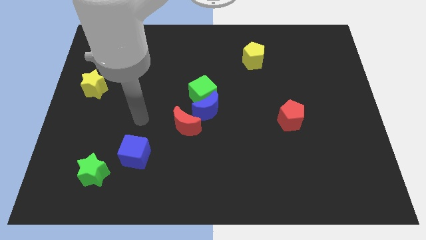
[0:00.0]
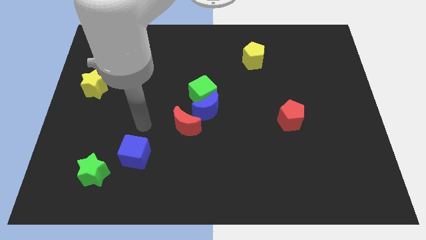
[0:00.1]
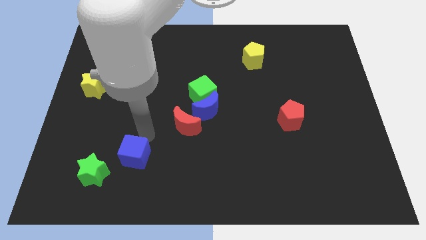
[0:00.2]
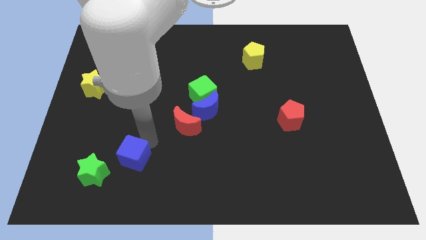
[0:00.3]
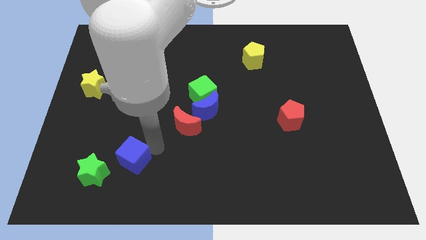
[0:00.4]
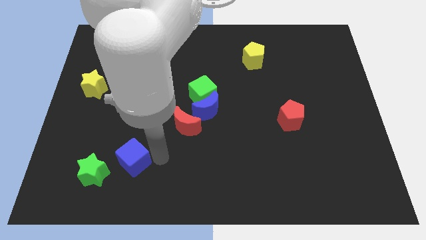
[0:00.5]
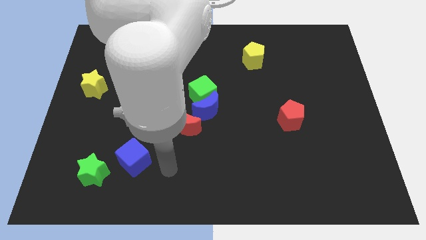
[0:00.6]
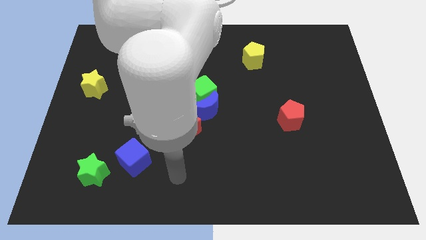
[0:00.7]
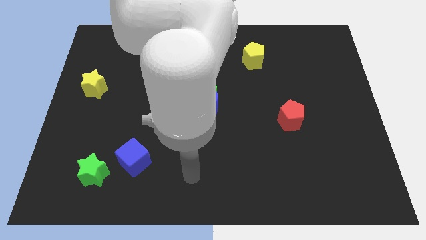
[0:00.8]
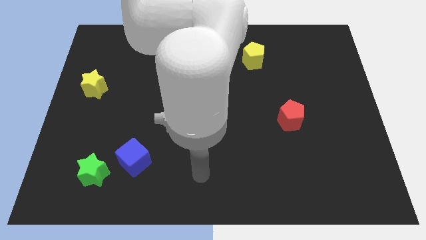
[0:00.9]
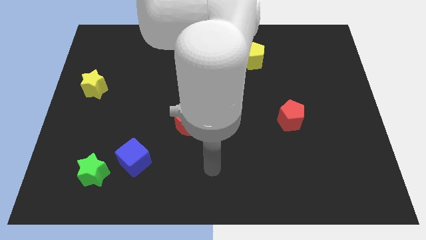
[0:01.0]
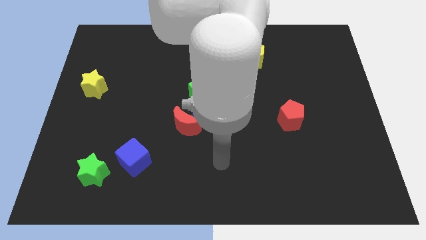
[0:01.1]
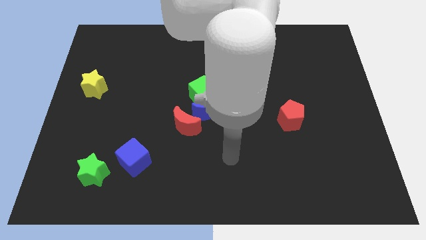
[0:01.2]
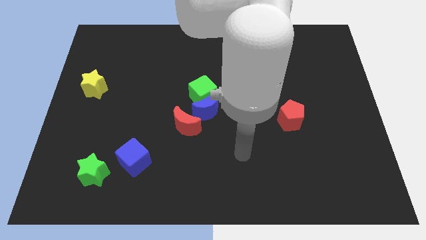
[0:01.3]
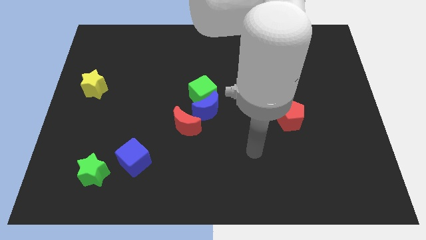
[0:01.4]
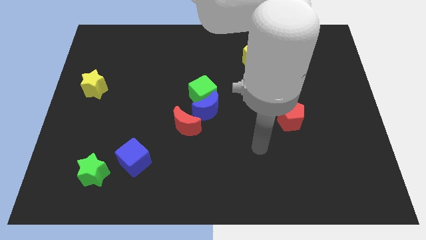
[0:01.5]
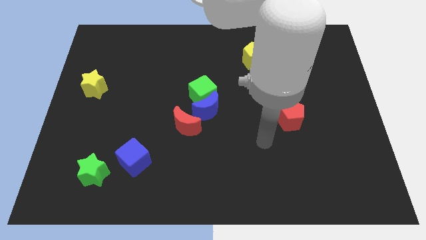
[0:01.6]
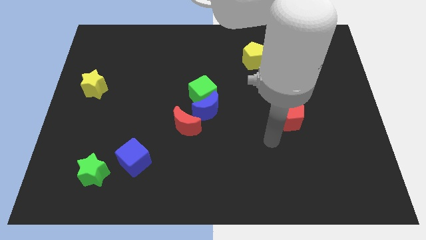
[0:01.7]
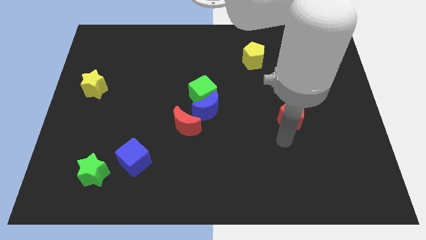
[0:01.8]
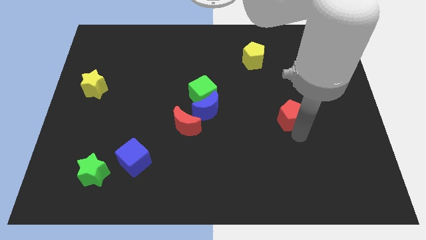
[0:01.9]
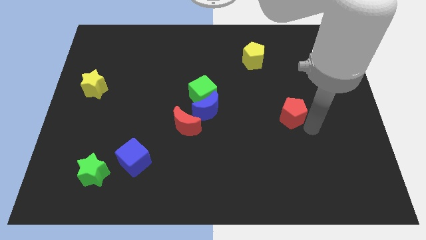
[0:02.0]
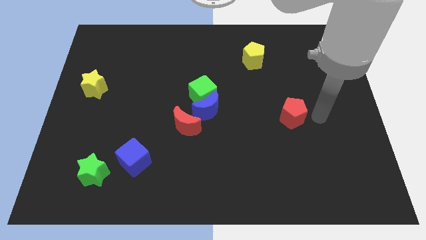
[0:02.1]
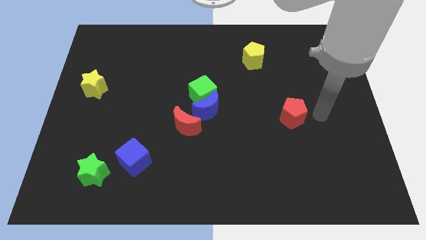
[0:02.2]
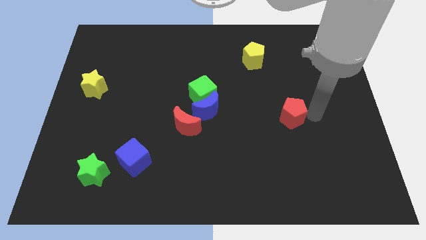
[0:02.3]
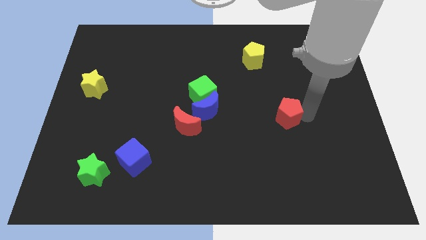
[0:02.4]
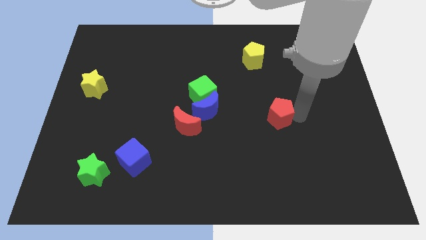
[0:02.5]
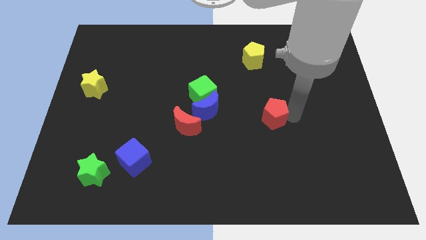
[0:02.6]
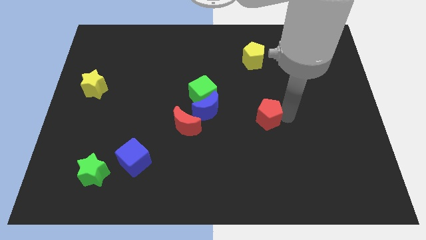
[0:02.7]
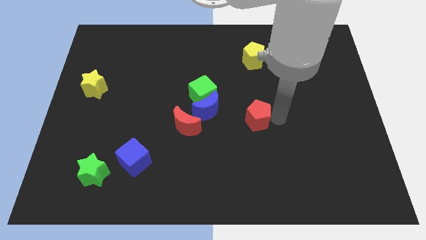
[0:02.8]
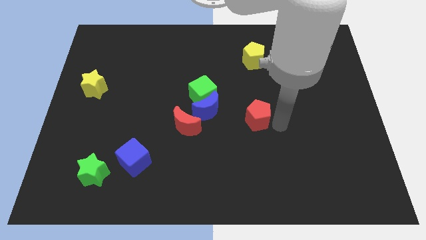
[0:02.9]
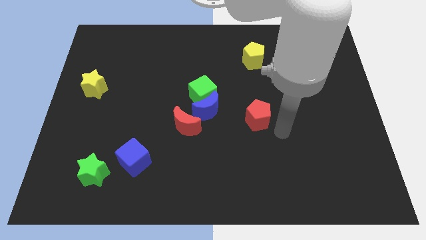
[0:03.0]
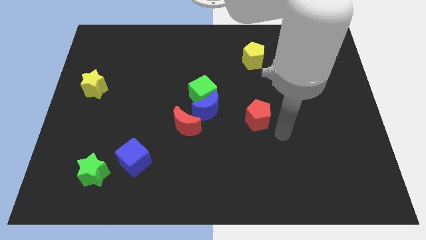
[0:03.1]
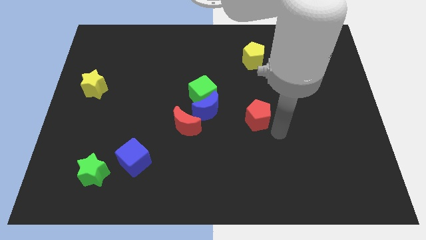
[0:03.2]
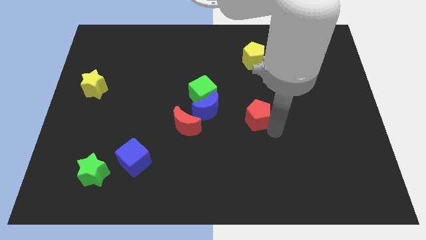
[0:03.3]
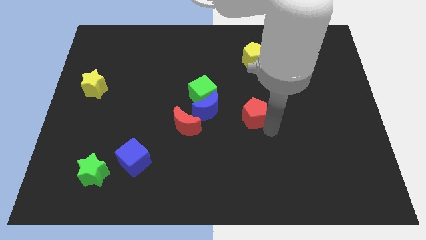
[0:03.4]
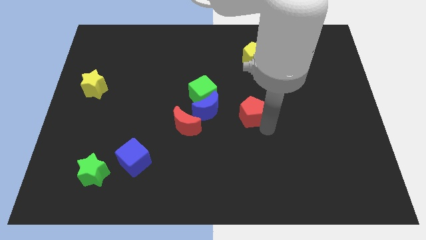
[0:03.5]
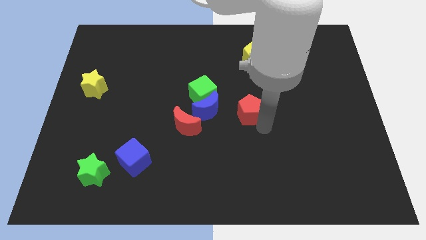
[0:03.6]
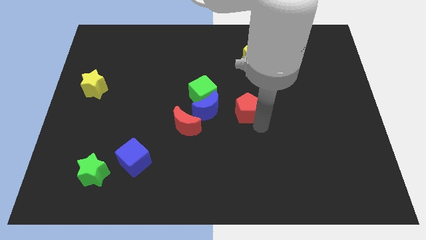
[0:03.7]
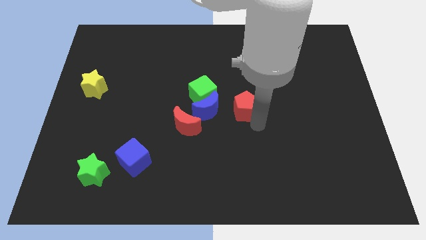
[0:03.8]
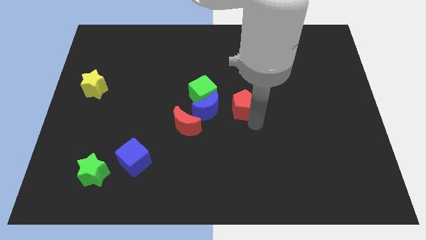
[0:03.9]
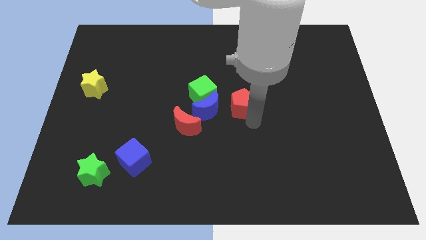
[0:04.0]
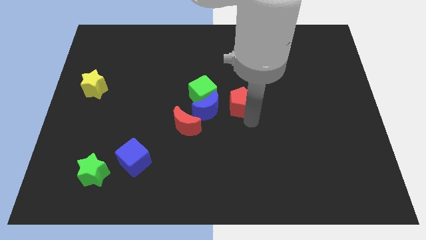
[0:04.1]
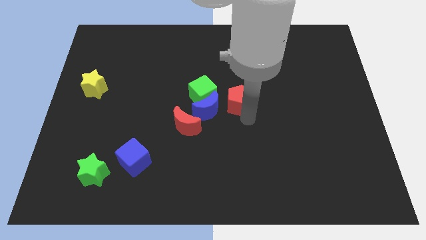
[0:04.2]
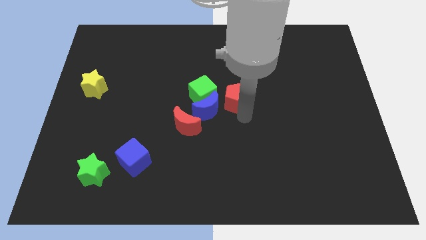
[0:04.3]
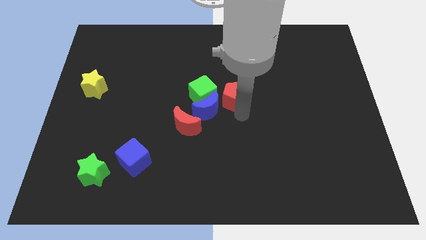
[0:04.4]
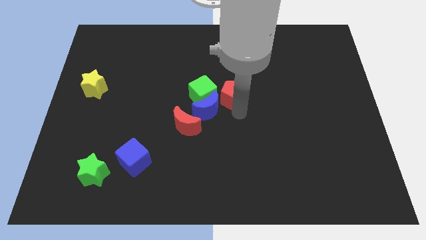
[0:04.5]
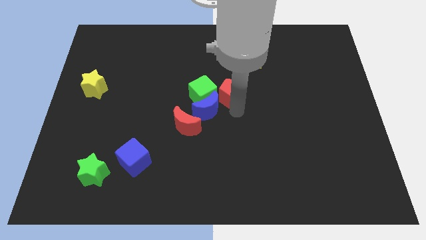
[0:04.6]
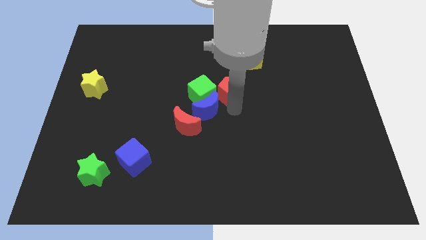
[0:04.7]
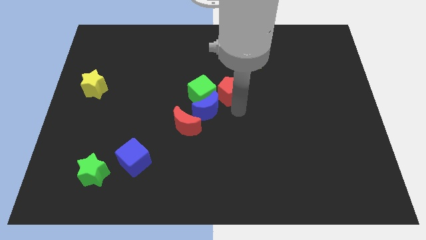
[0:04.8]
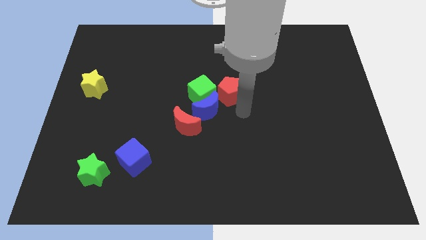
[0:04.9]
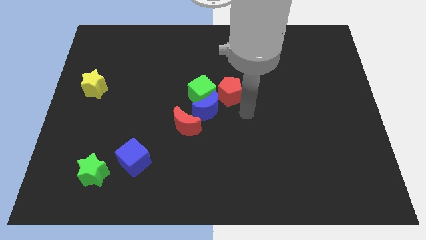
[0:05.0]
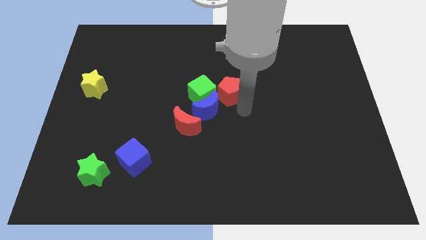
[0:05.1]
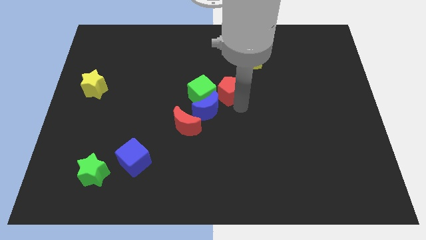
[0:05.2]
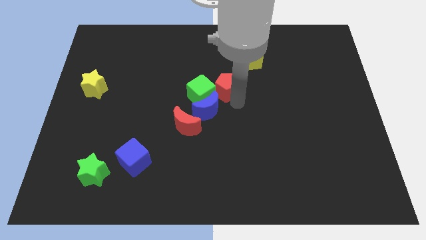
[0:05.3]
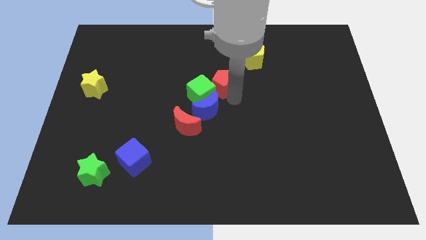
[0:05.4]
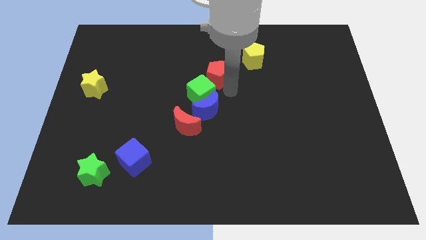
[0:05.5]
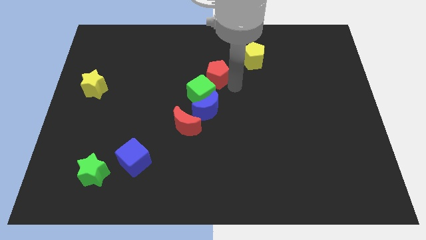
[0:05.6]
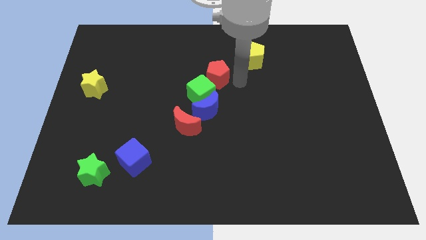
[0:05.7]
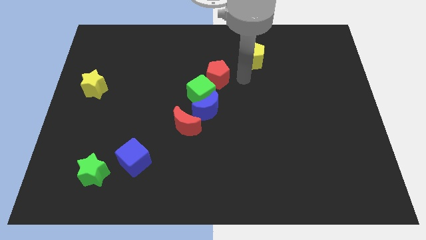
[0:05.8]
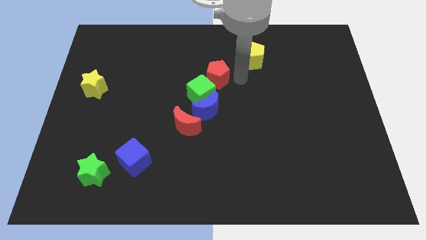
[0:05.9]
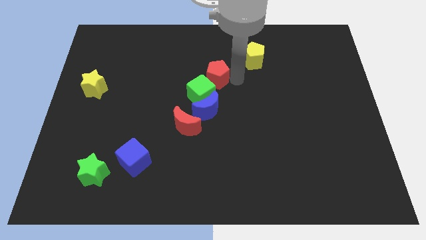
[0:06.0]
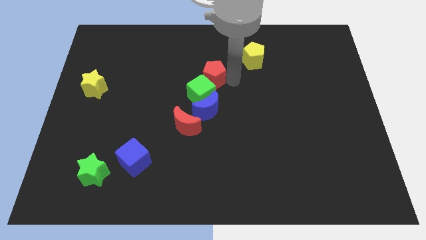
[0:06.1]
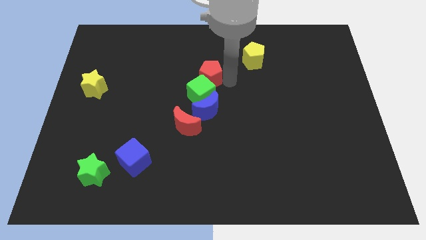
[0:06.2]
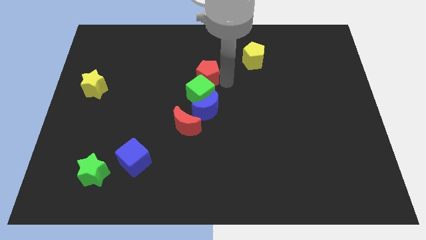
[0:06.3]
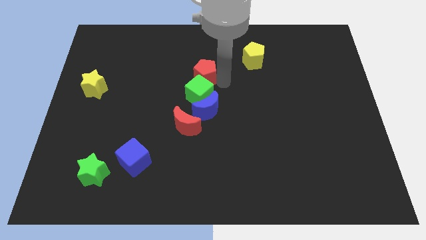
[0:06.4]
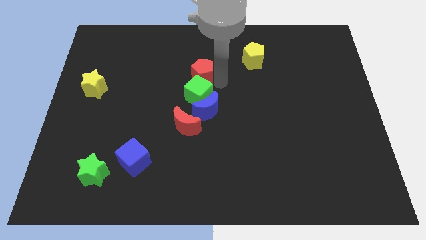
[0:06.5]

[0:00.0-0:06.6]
slide the red pentagon to the top left of the green cube
